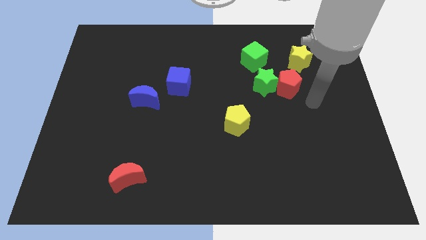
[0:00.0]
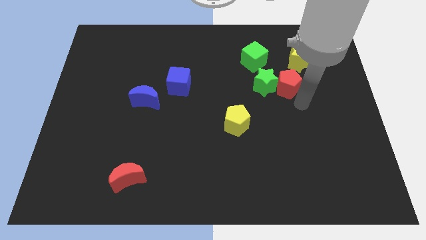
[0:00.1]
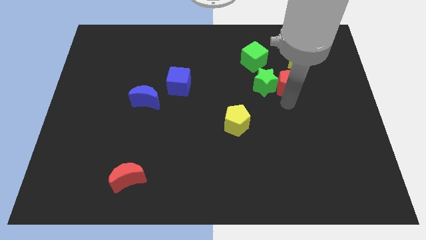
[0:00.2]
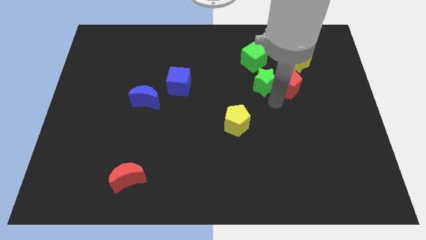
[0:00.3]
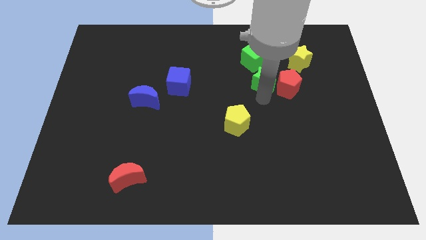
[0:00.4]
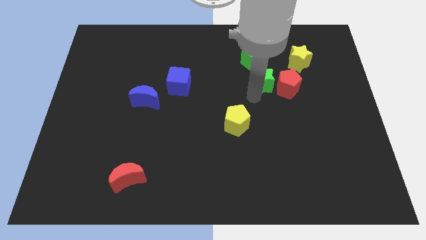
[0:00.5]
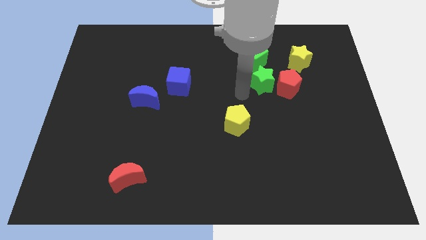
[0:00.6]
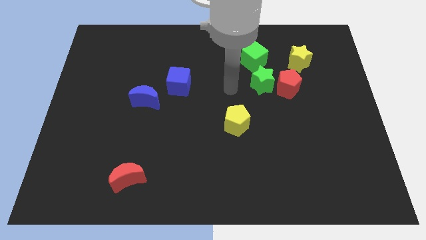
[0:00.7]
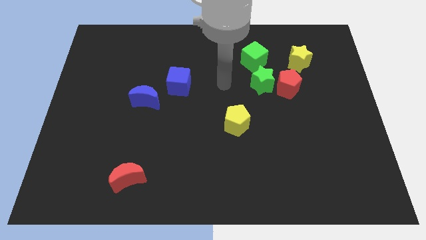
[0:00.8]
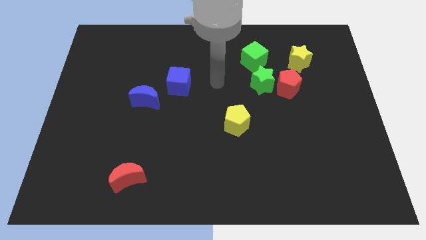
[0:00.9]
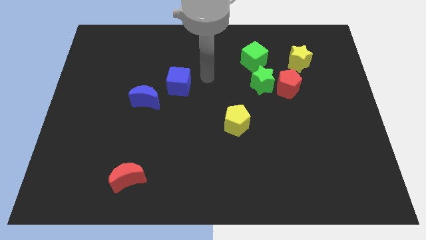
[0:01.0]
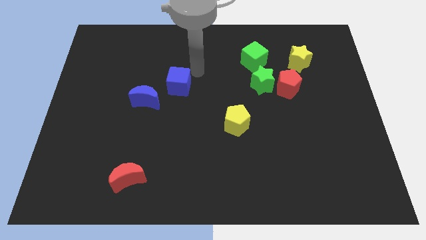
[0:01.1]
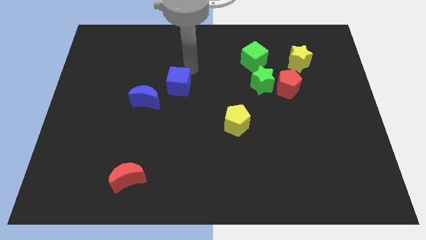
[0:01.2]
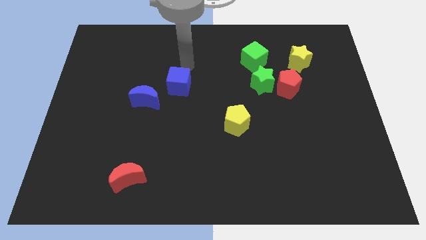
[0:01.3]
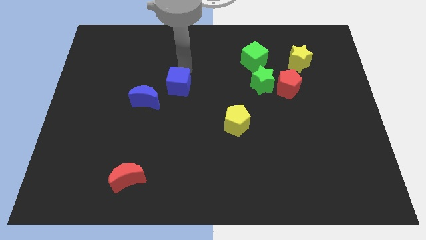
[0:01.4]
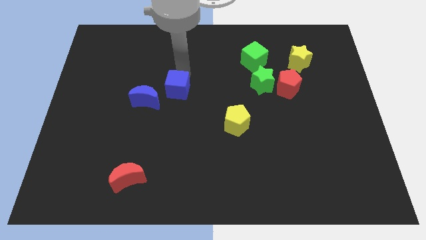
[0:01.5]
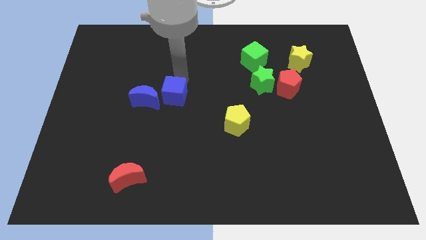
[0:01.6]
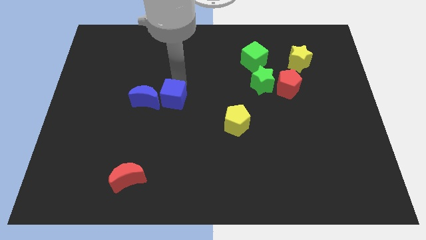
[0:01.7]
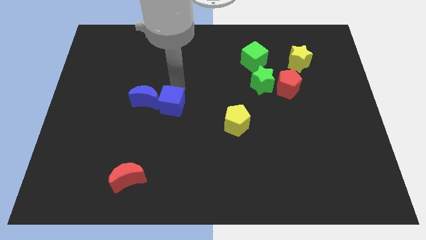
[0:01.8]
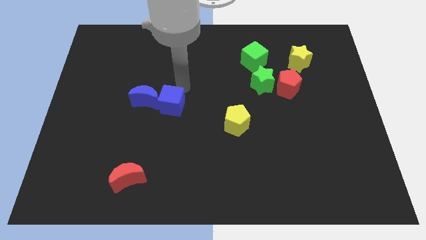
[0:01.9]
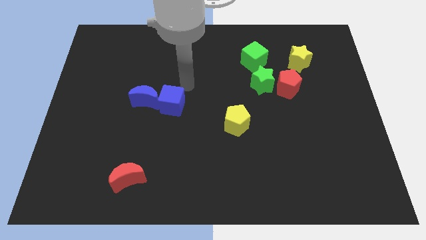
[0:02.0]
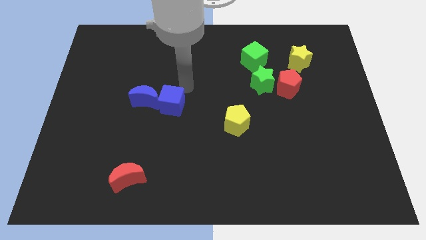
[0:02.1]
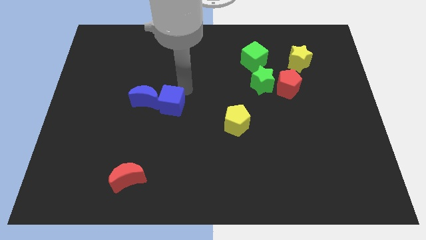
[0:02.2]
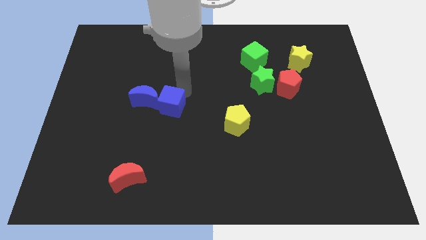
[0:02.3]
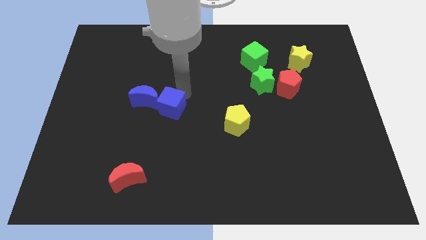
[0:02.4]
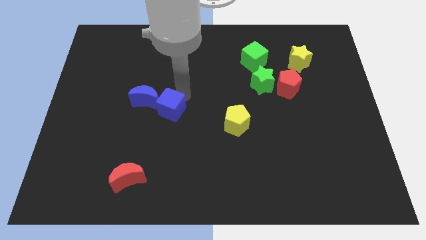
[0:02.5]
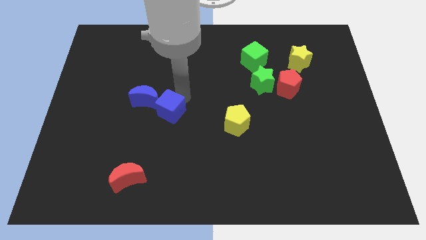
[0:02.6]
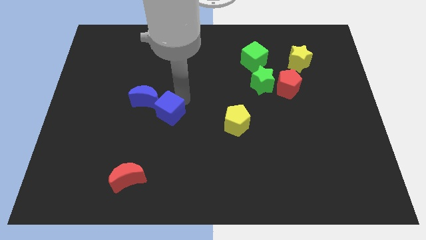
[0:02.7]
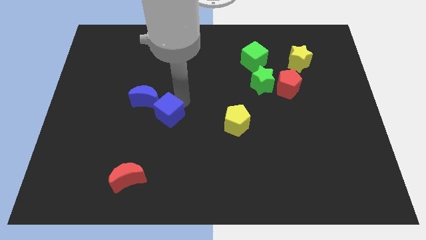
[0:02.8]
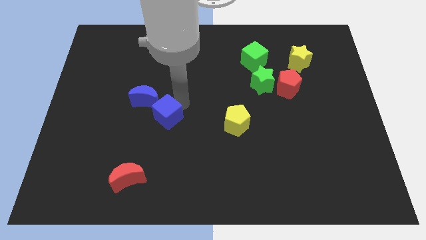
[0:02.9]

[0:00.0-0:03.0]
slide the blue cube downwards and left somewhat

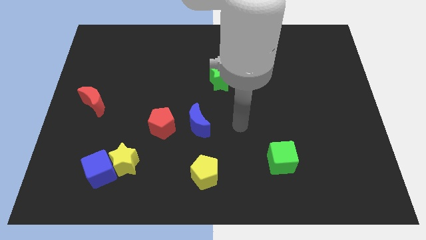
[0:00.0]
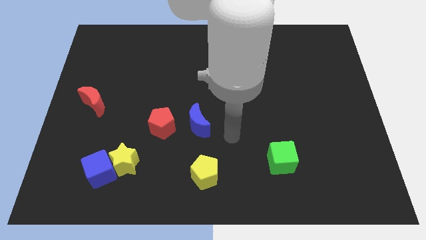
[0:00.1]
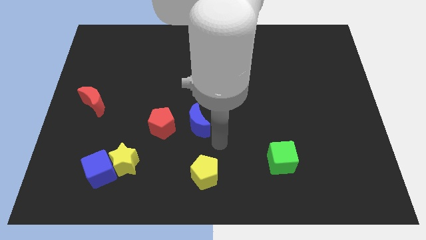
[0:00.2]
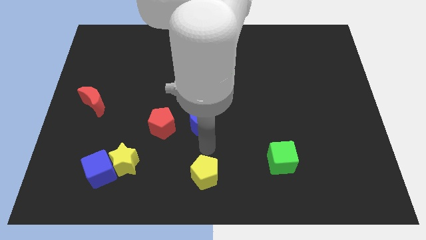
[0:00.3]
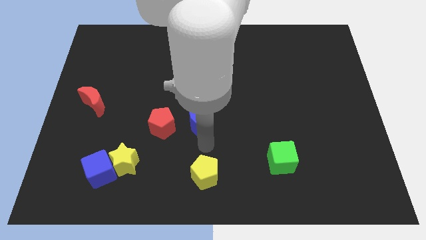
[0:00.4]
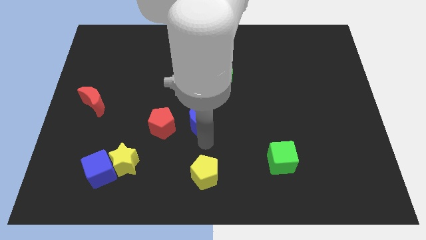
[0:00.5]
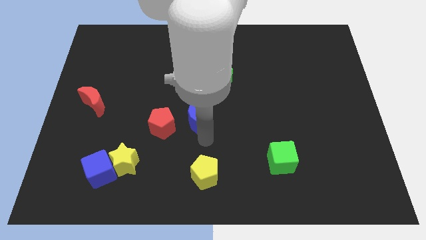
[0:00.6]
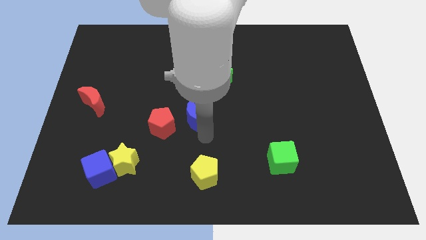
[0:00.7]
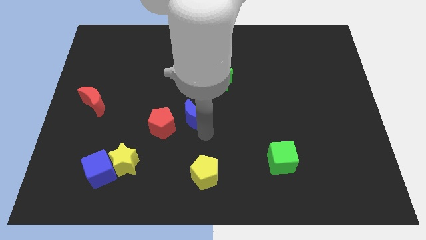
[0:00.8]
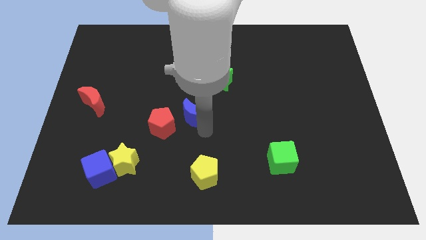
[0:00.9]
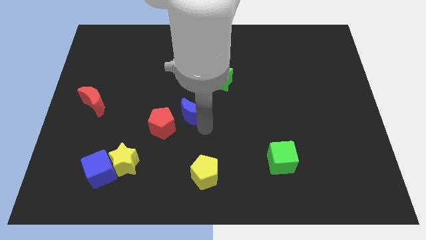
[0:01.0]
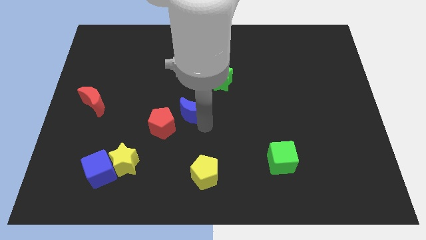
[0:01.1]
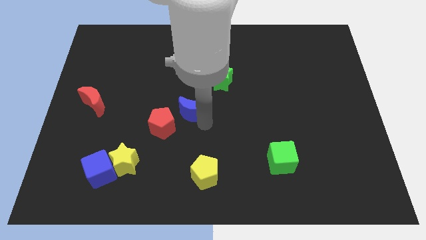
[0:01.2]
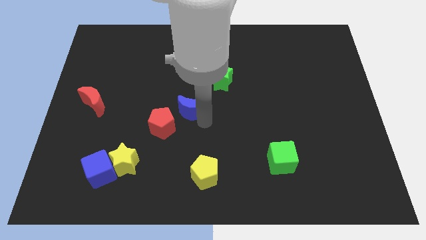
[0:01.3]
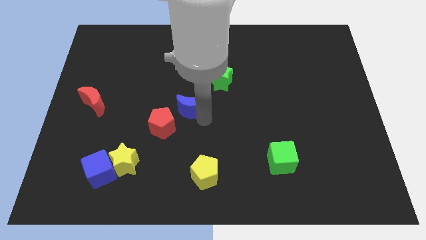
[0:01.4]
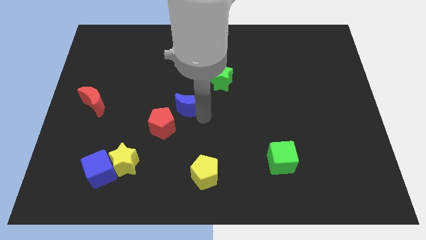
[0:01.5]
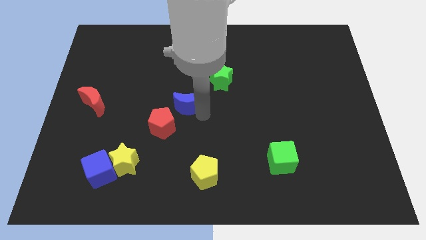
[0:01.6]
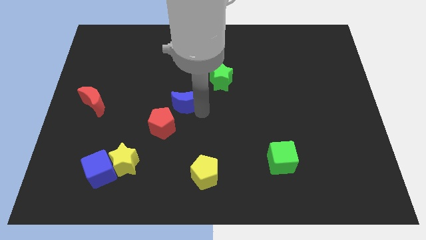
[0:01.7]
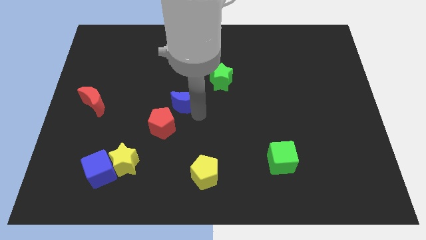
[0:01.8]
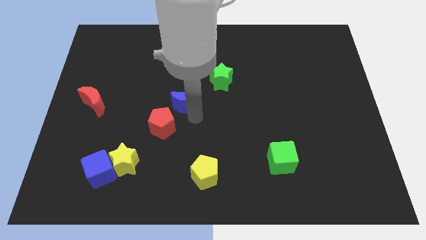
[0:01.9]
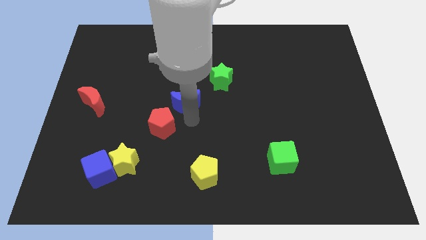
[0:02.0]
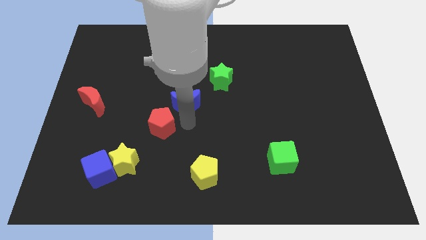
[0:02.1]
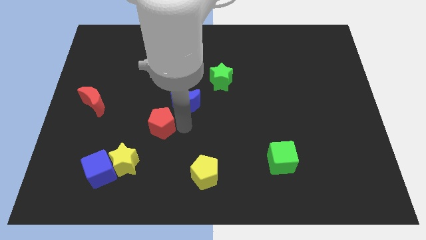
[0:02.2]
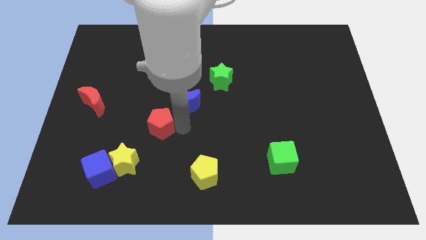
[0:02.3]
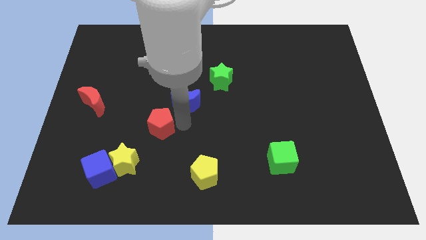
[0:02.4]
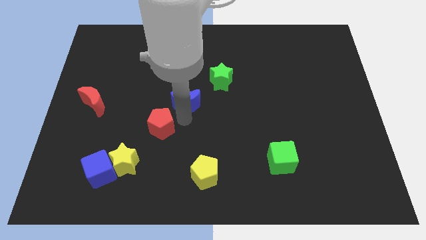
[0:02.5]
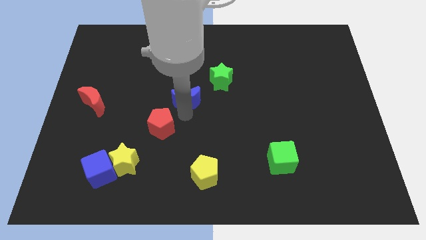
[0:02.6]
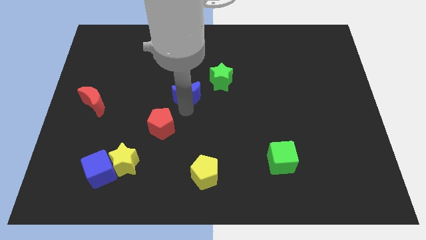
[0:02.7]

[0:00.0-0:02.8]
slide the blue moon somewhat upwards

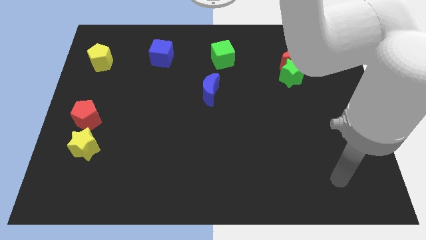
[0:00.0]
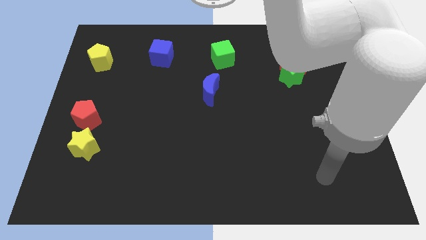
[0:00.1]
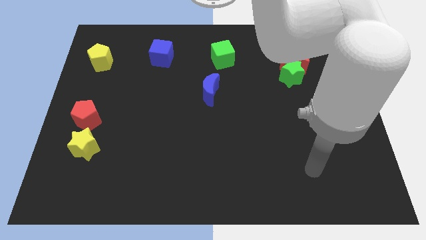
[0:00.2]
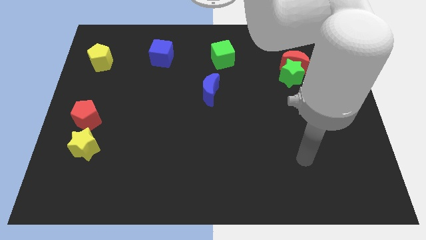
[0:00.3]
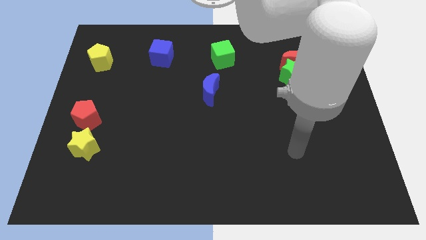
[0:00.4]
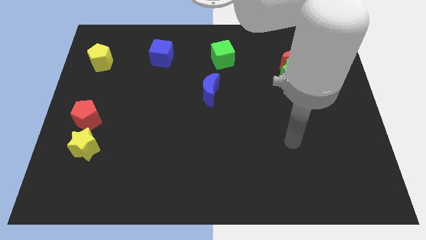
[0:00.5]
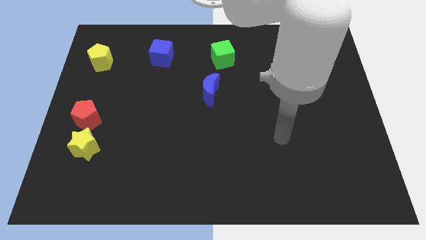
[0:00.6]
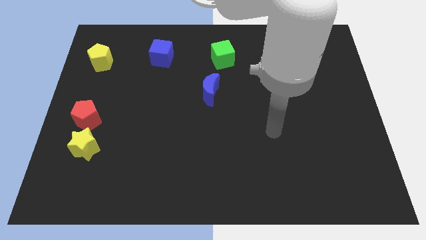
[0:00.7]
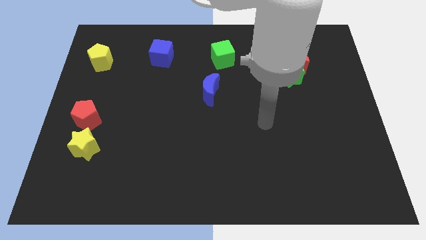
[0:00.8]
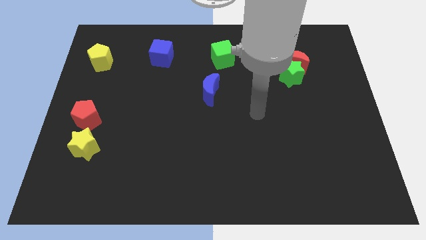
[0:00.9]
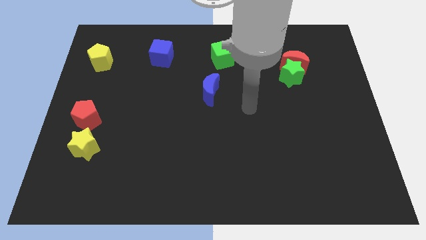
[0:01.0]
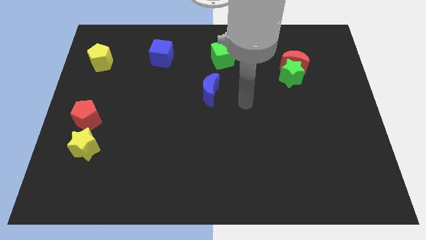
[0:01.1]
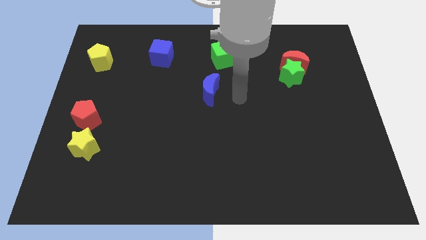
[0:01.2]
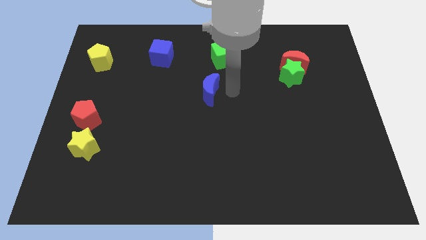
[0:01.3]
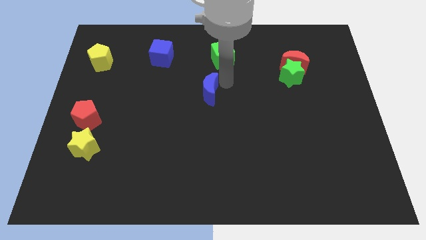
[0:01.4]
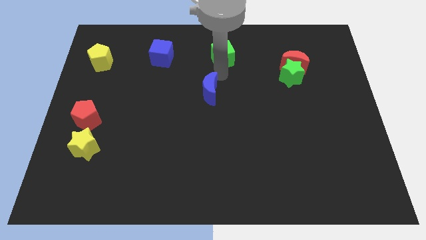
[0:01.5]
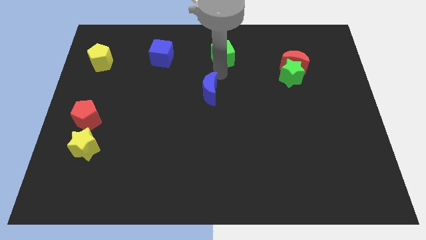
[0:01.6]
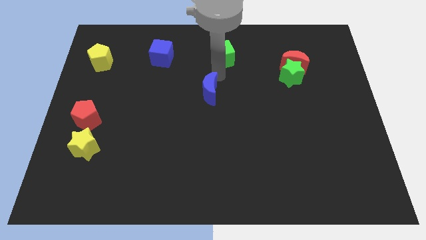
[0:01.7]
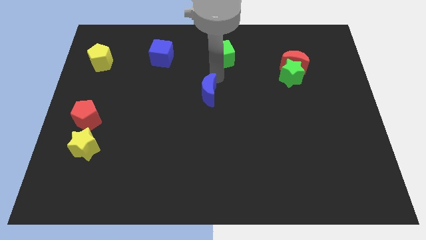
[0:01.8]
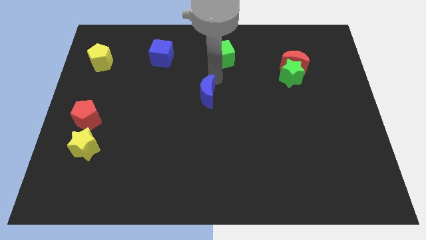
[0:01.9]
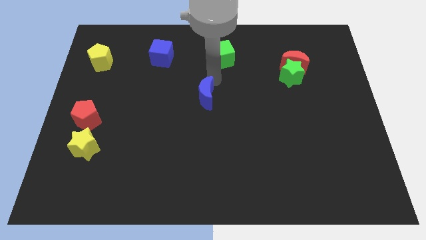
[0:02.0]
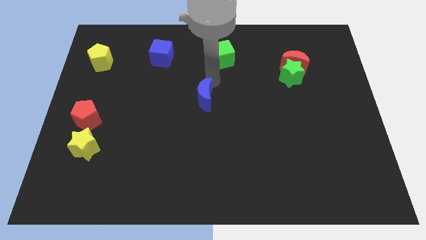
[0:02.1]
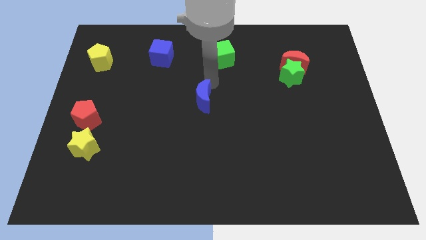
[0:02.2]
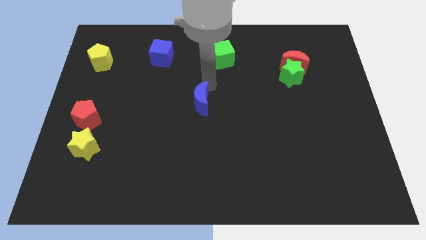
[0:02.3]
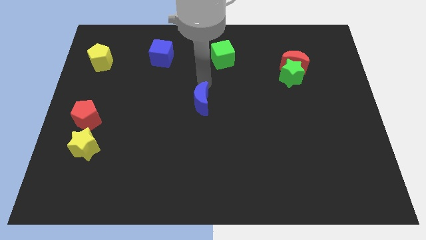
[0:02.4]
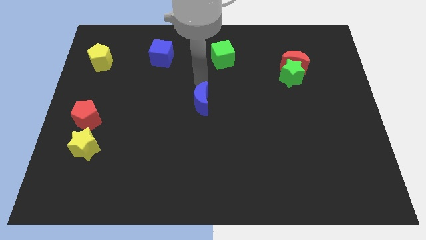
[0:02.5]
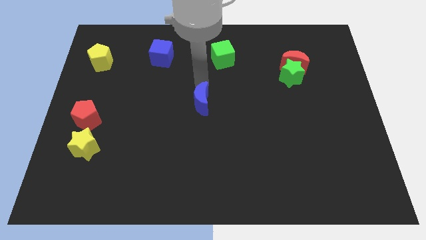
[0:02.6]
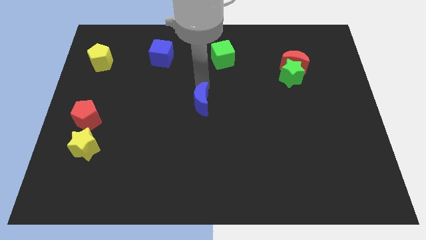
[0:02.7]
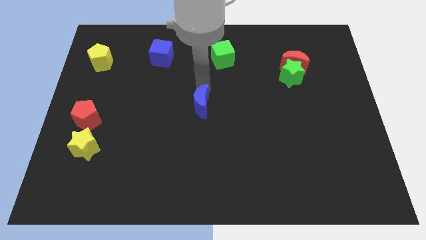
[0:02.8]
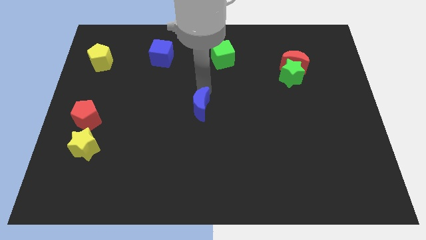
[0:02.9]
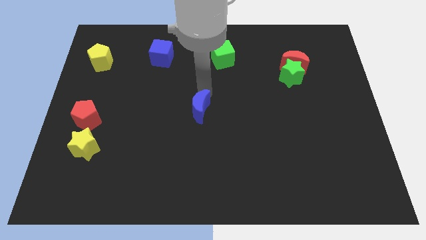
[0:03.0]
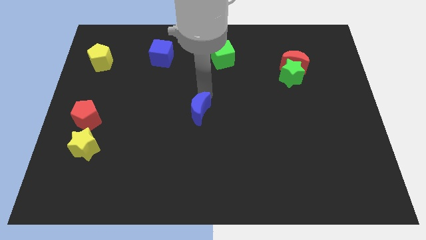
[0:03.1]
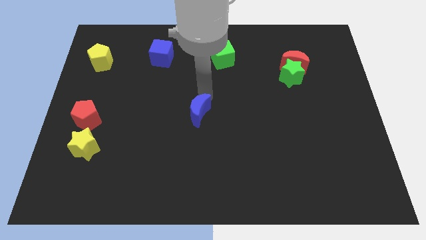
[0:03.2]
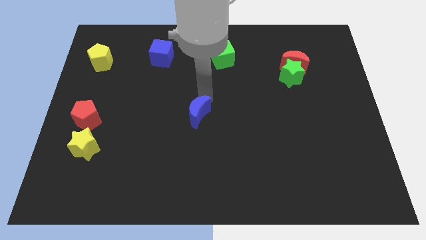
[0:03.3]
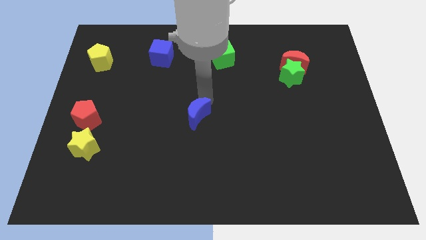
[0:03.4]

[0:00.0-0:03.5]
move the blue moon slightly downwards
